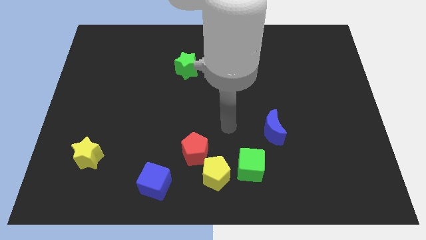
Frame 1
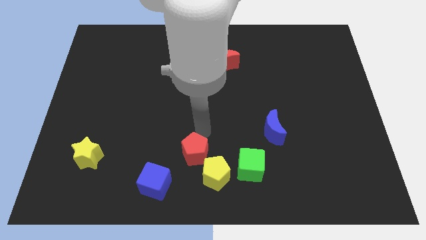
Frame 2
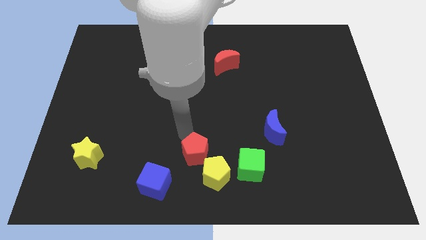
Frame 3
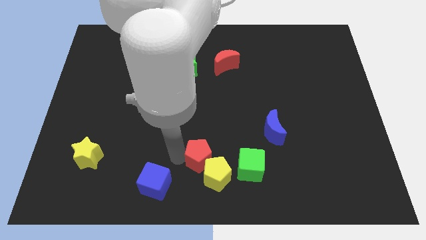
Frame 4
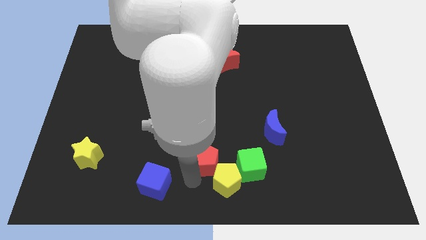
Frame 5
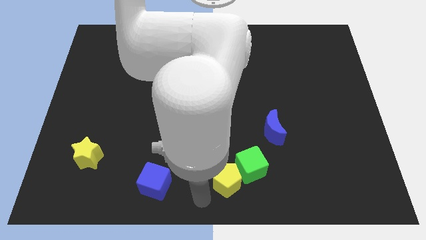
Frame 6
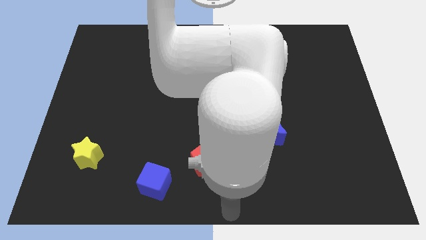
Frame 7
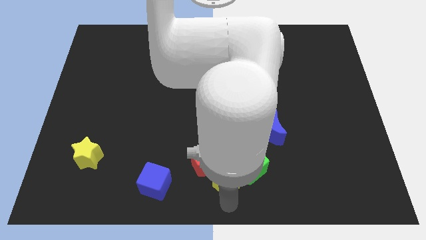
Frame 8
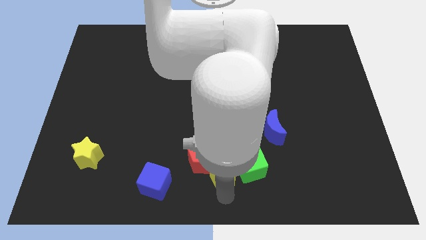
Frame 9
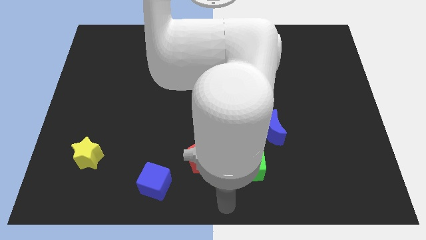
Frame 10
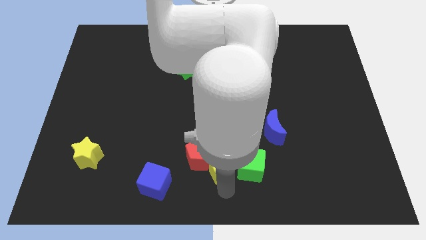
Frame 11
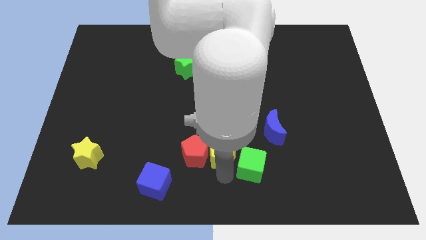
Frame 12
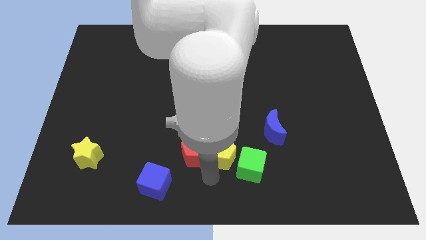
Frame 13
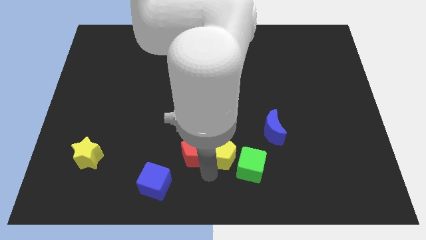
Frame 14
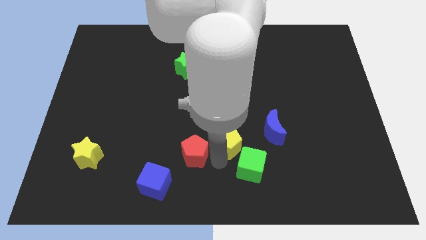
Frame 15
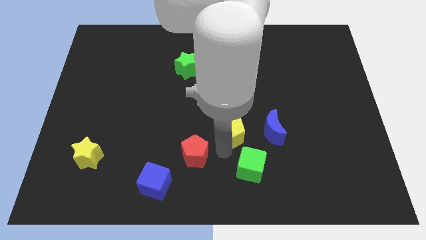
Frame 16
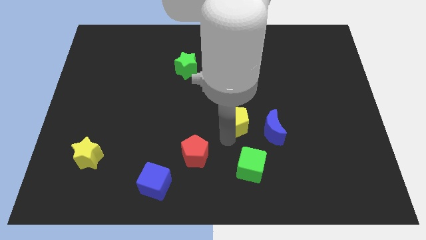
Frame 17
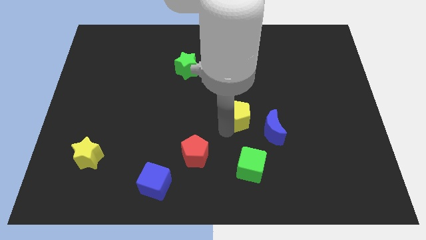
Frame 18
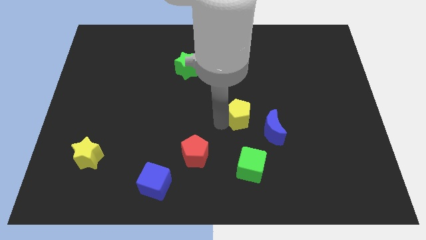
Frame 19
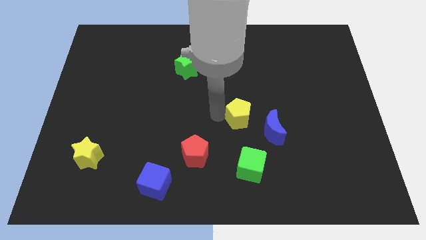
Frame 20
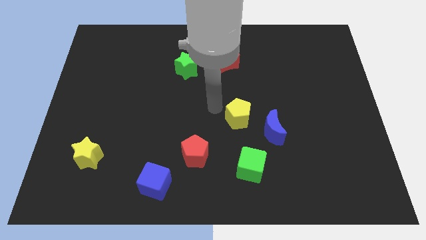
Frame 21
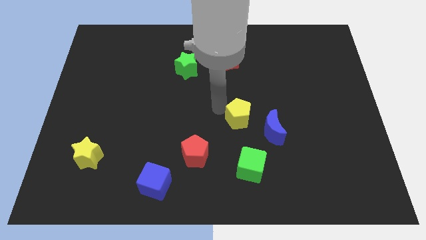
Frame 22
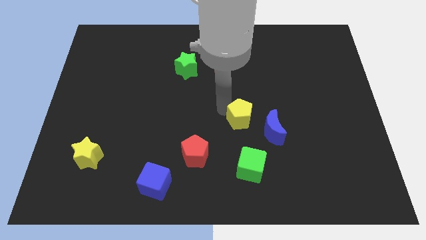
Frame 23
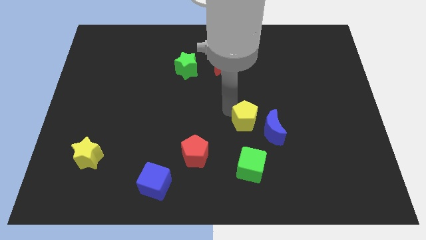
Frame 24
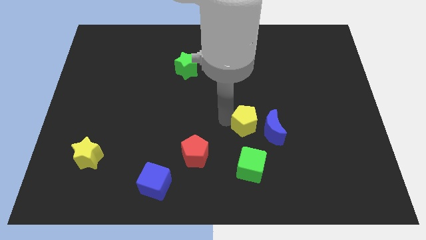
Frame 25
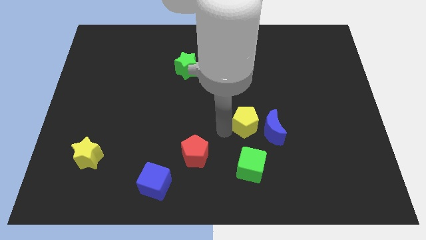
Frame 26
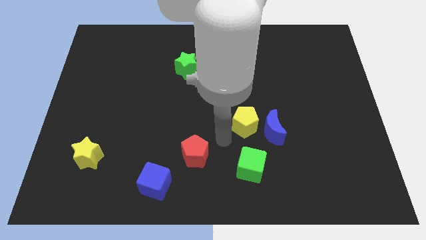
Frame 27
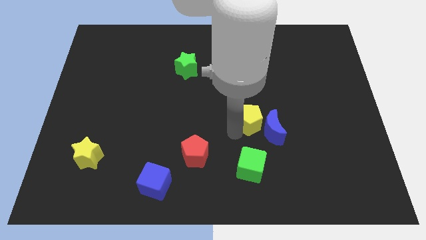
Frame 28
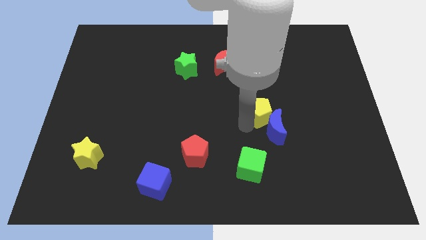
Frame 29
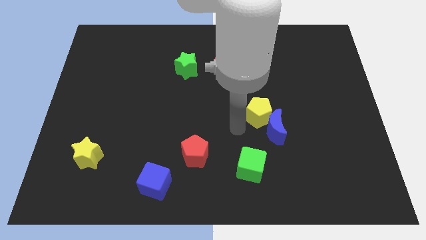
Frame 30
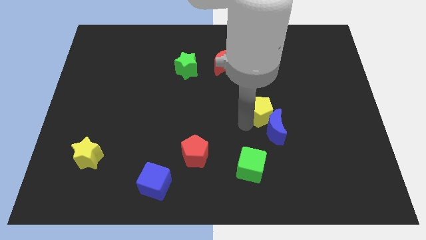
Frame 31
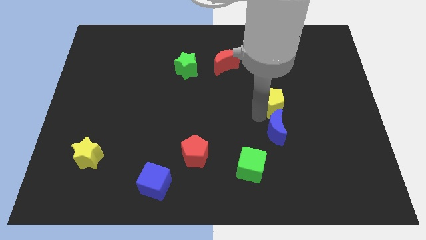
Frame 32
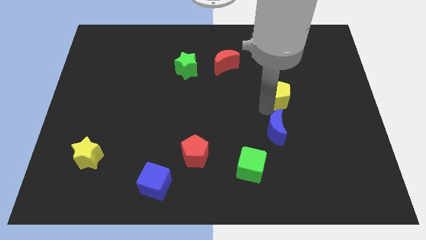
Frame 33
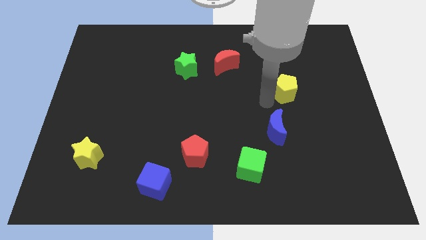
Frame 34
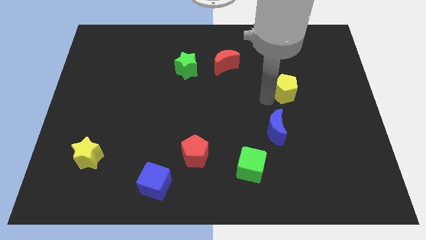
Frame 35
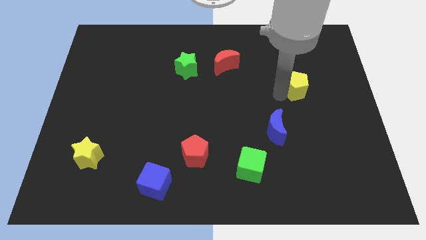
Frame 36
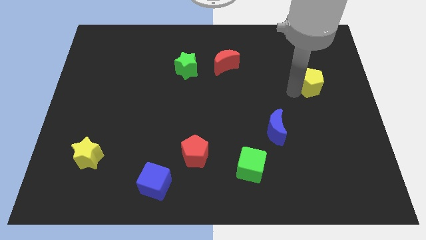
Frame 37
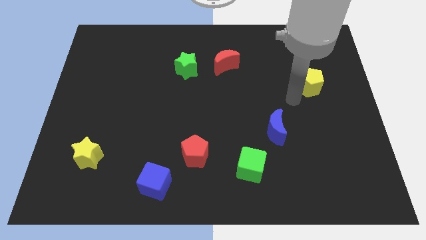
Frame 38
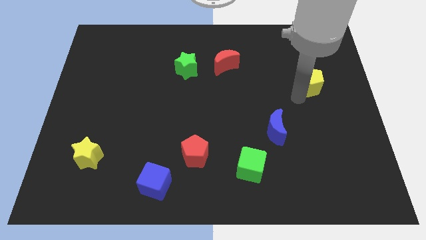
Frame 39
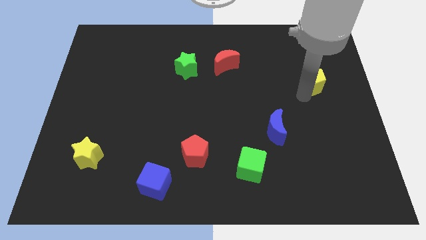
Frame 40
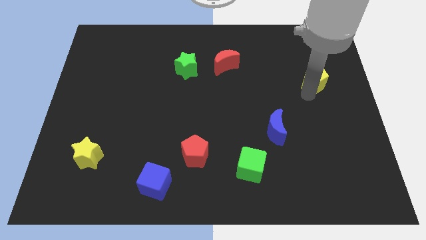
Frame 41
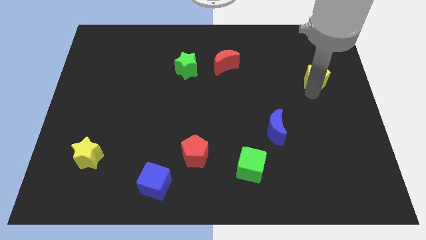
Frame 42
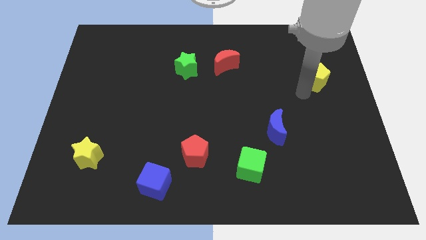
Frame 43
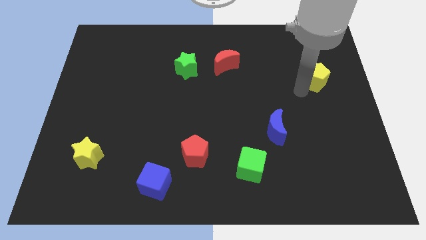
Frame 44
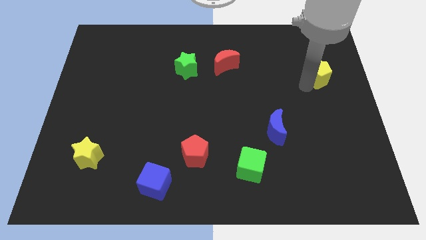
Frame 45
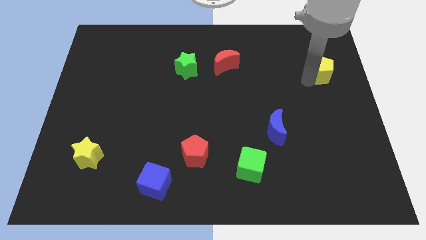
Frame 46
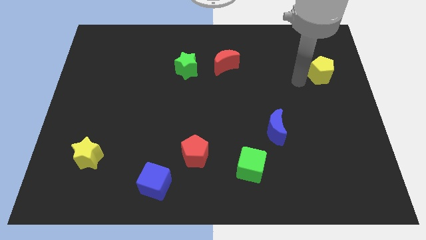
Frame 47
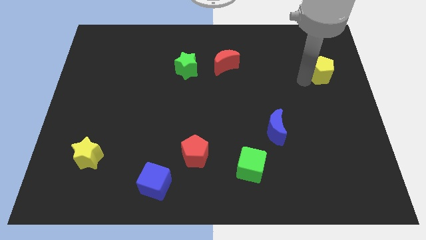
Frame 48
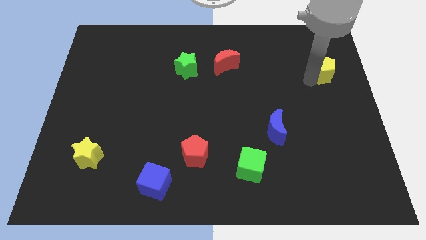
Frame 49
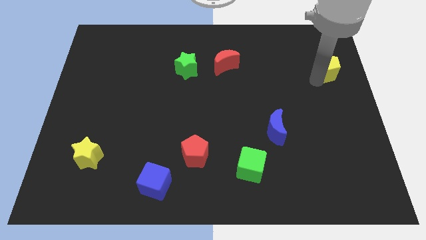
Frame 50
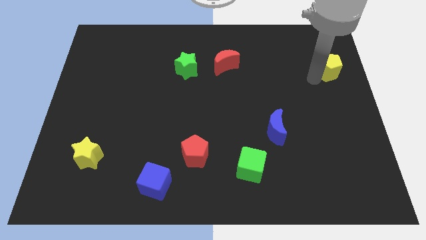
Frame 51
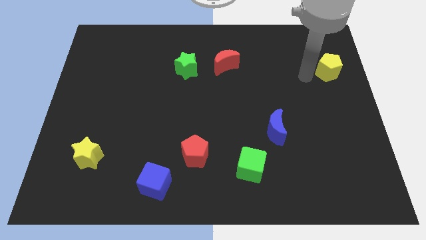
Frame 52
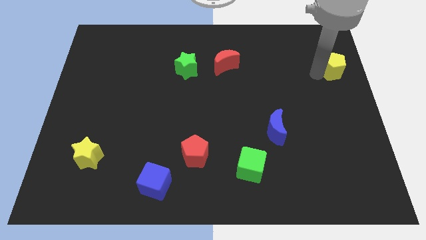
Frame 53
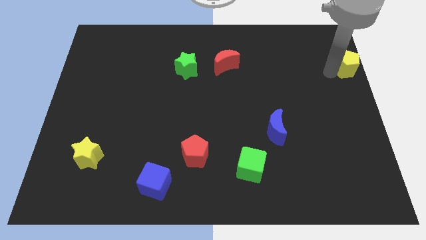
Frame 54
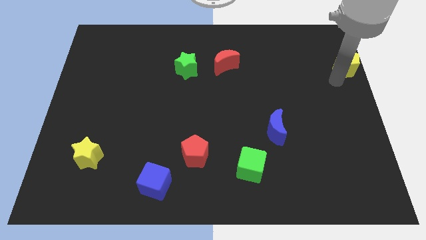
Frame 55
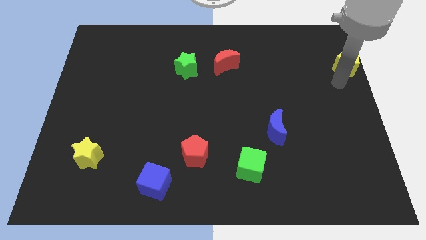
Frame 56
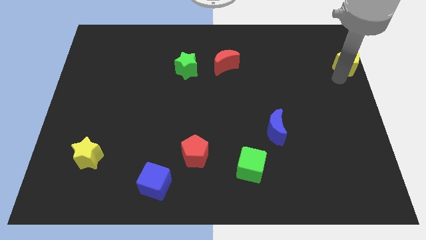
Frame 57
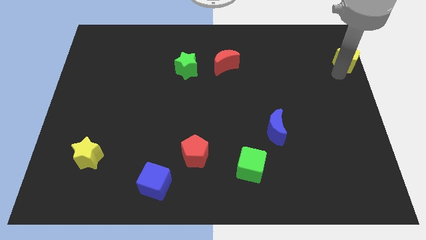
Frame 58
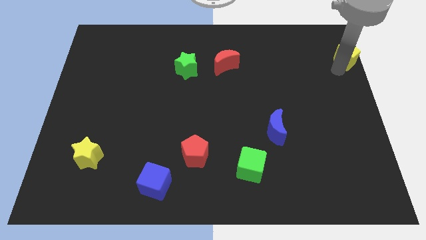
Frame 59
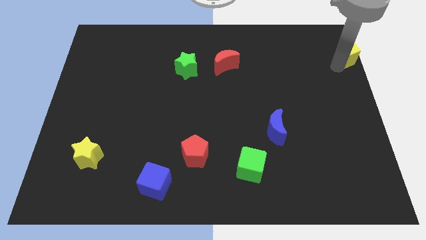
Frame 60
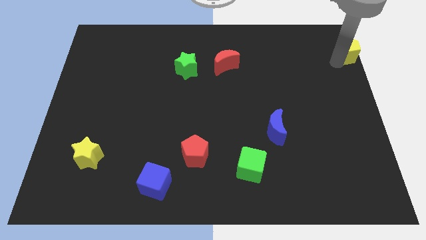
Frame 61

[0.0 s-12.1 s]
slide the yellow pentagon to the top right

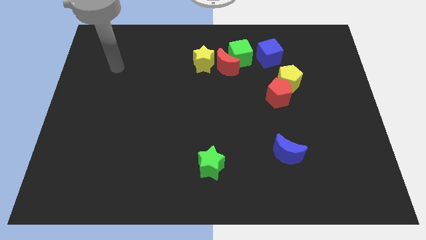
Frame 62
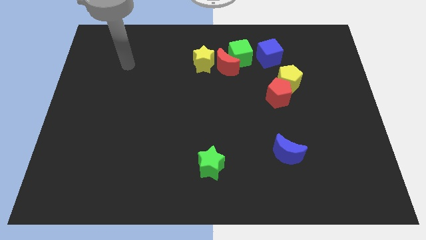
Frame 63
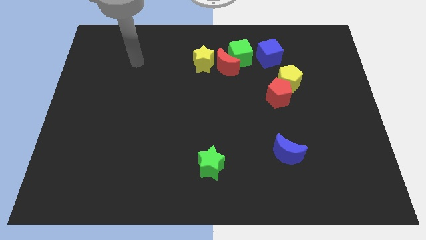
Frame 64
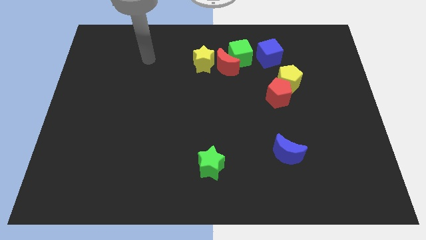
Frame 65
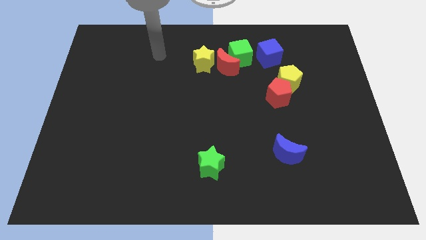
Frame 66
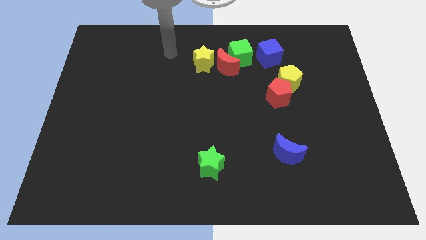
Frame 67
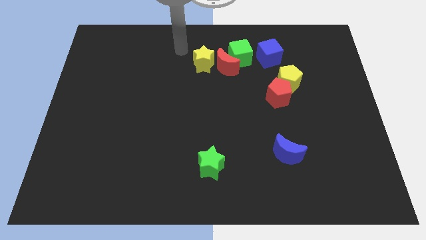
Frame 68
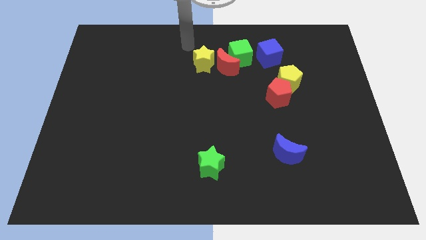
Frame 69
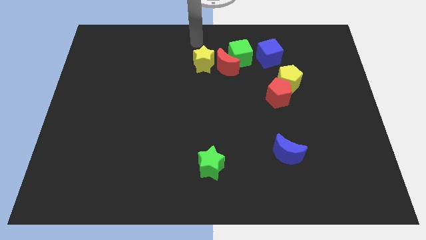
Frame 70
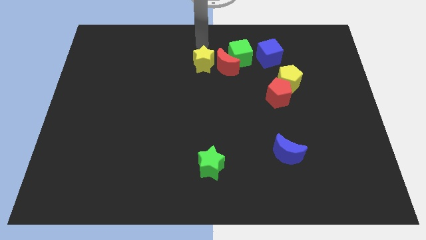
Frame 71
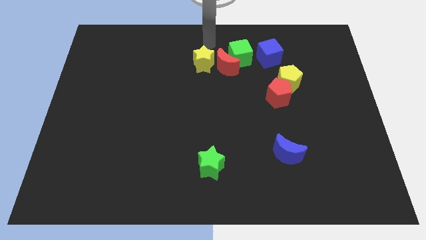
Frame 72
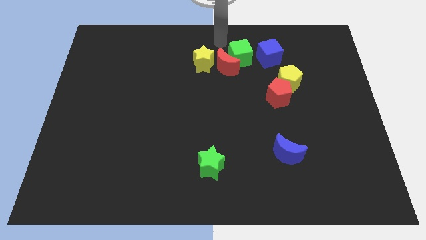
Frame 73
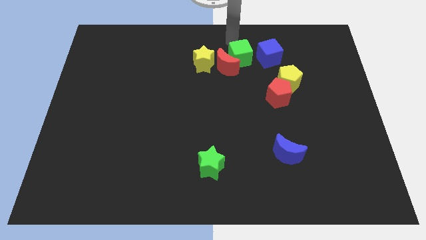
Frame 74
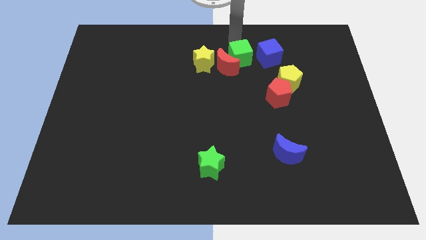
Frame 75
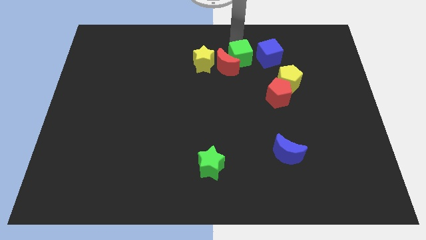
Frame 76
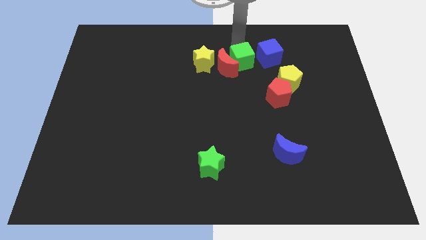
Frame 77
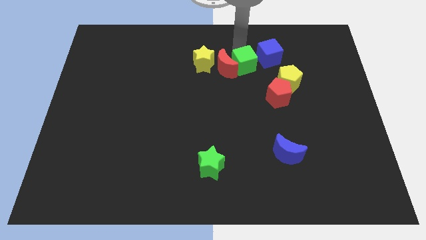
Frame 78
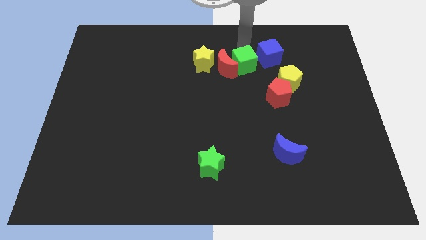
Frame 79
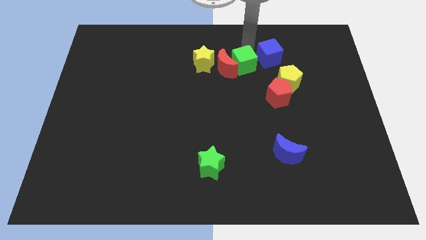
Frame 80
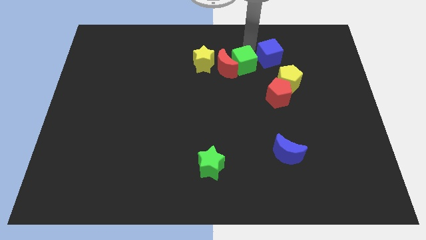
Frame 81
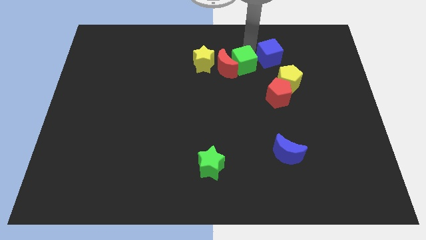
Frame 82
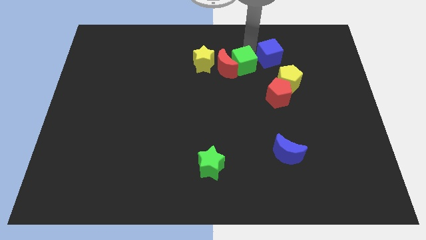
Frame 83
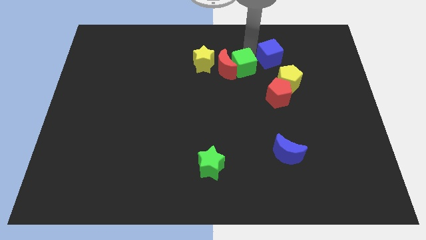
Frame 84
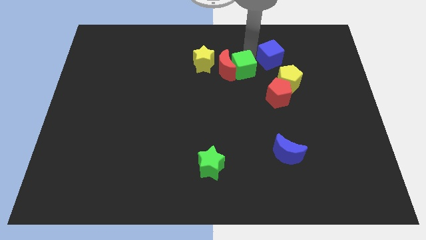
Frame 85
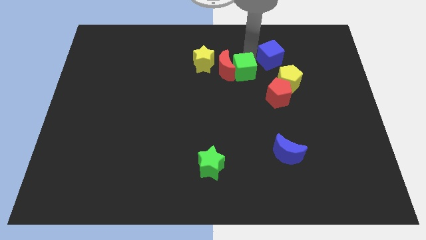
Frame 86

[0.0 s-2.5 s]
move the green cube to the middle
